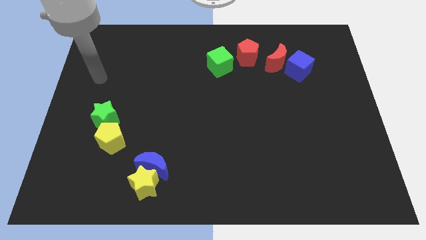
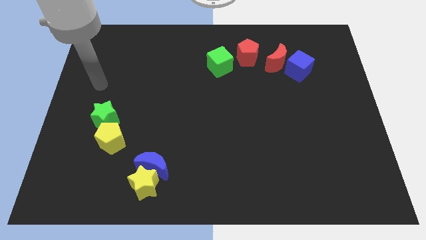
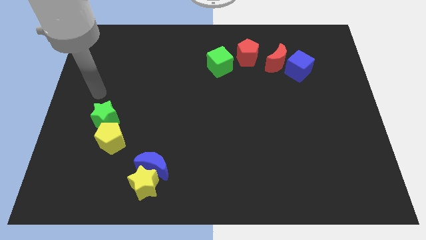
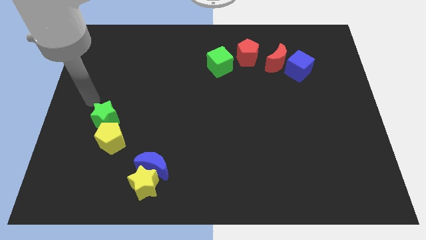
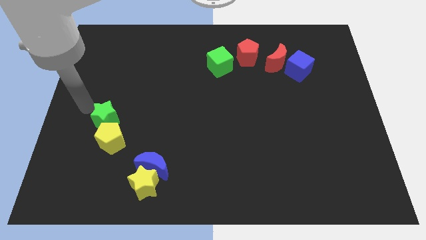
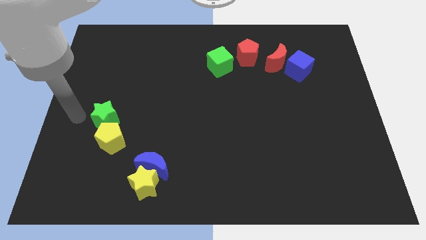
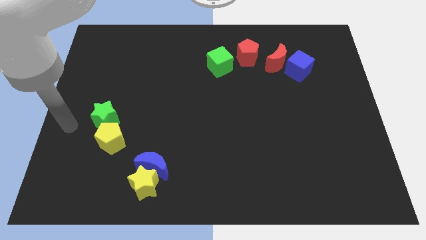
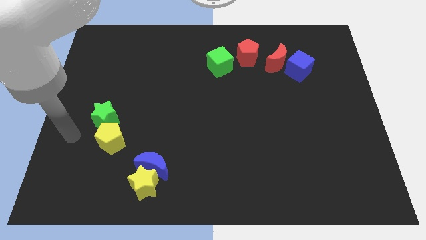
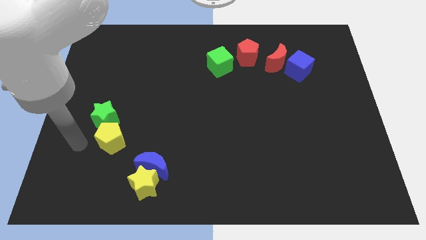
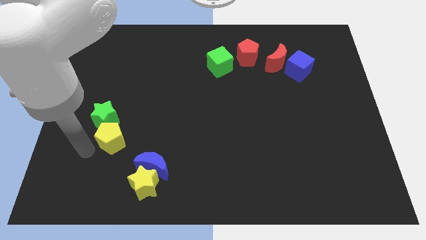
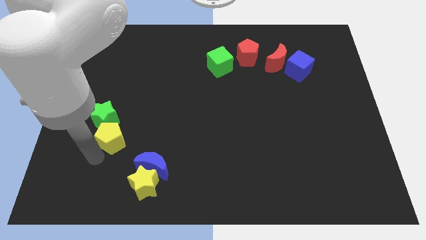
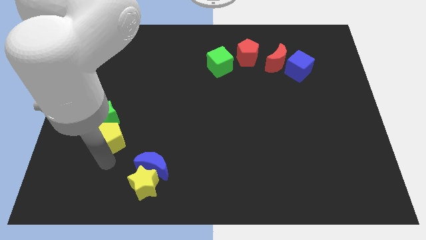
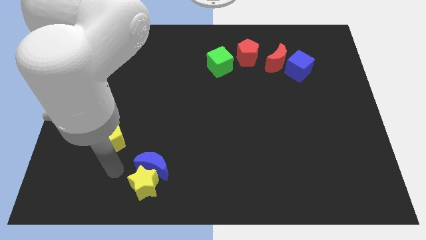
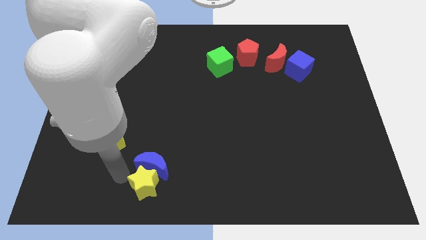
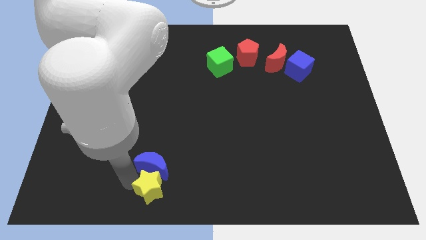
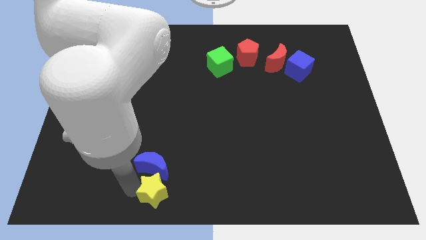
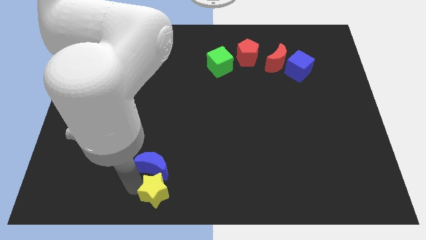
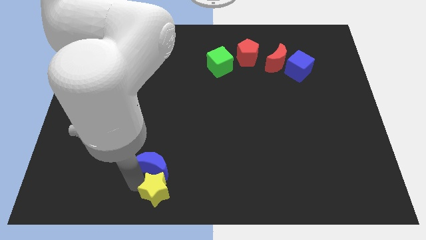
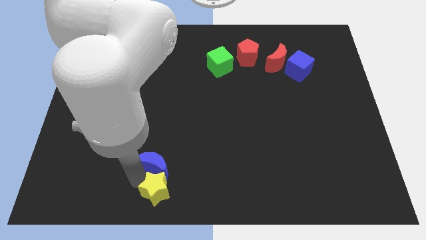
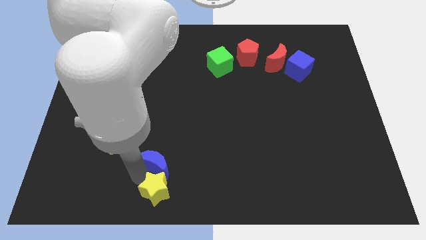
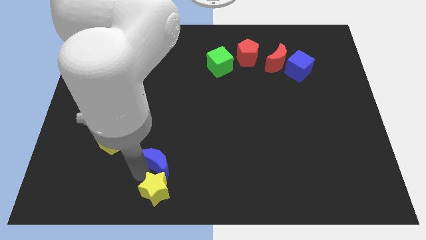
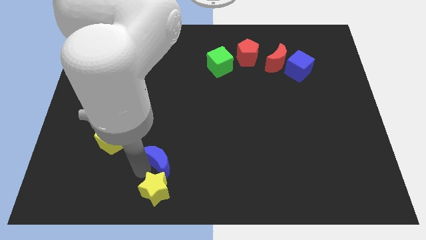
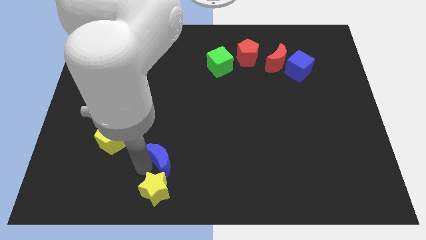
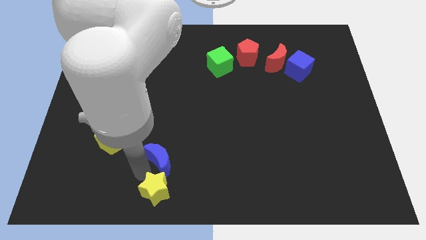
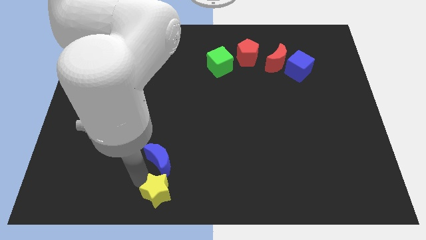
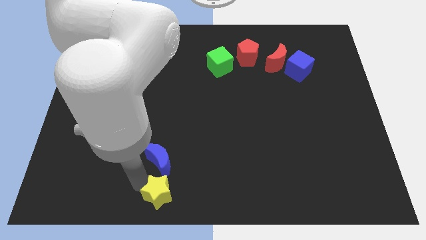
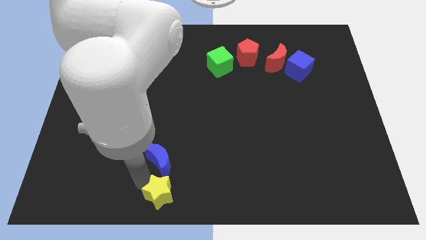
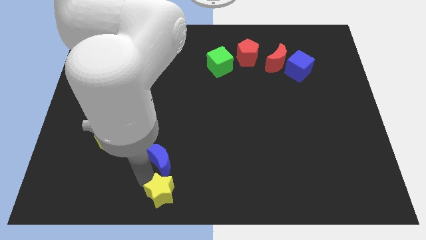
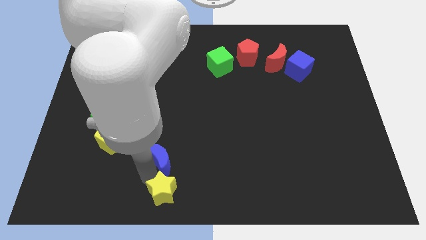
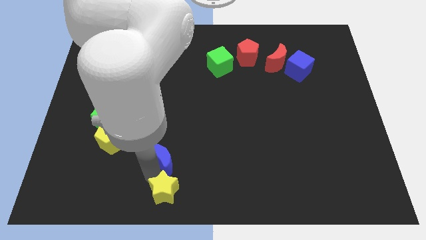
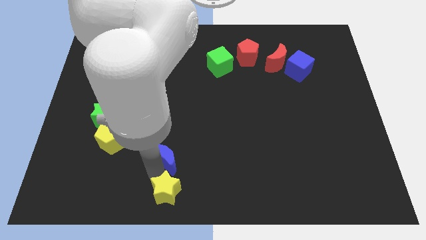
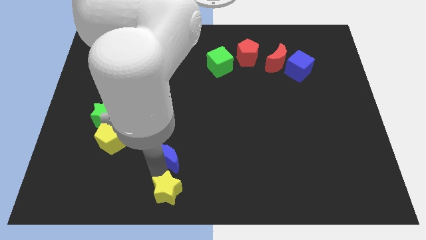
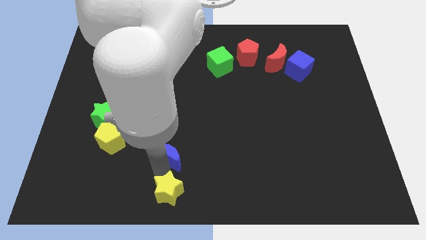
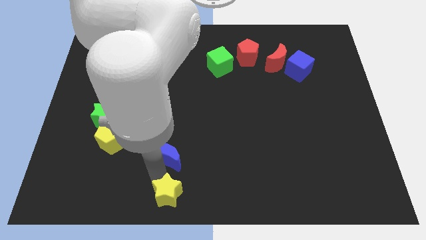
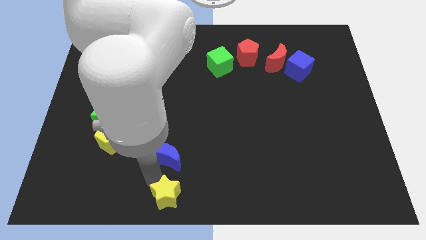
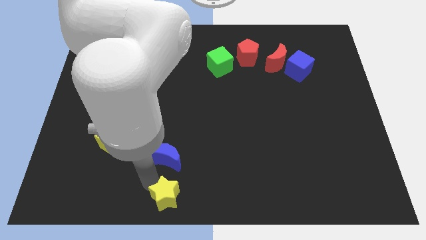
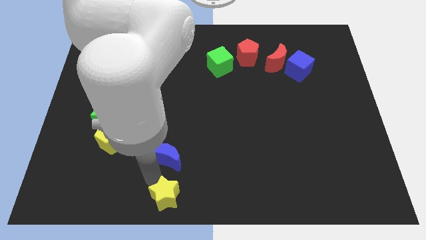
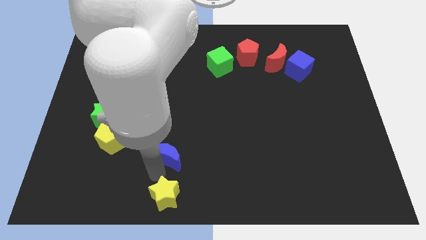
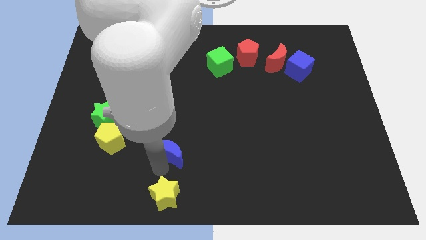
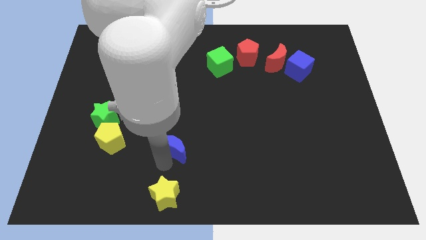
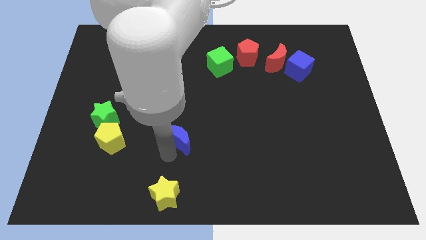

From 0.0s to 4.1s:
slide the blue moon slightly diagonally upwards and to the right

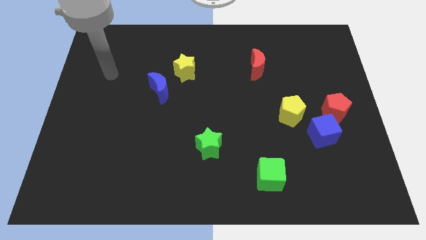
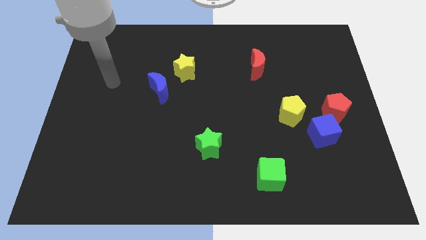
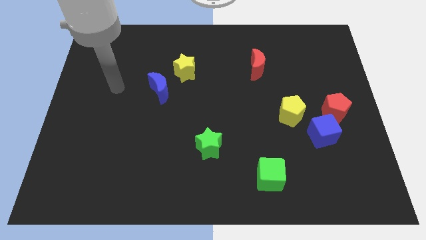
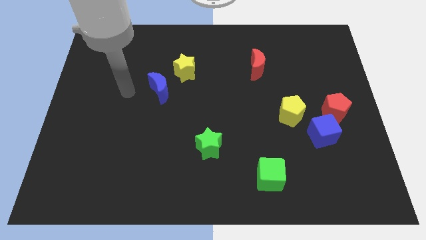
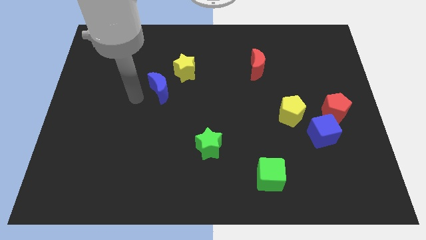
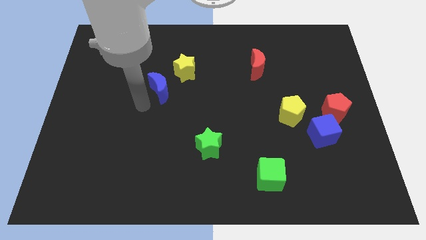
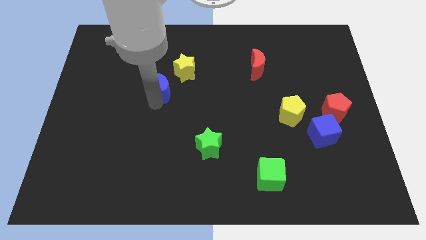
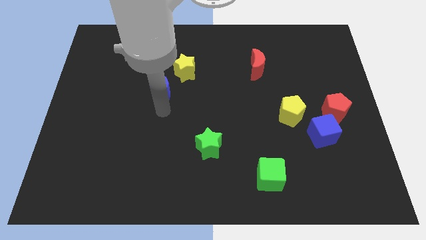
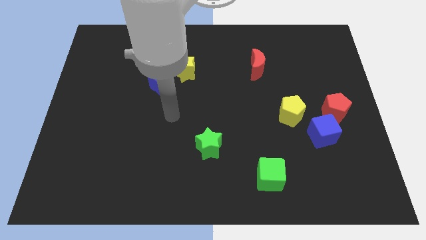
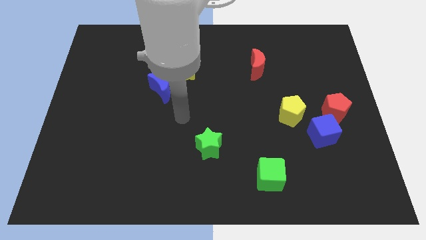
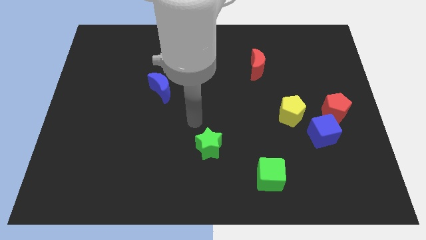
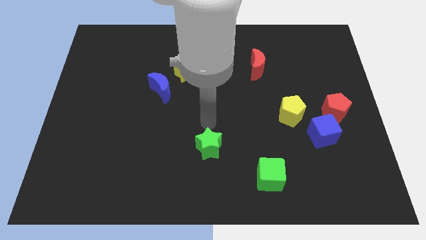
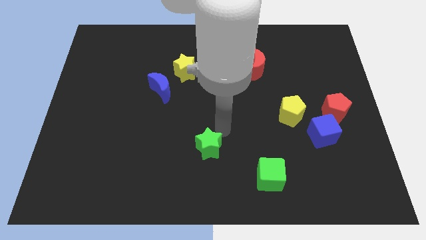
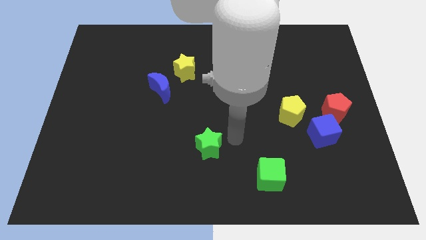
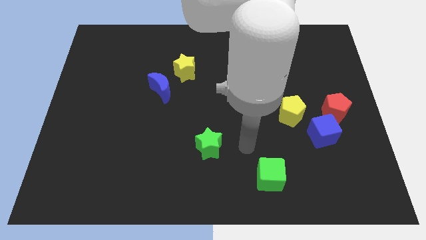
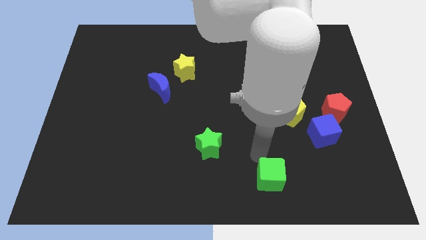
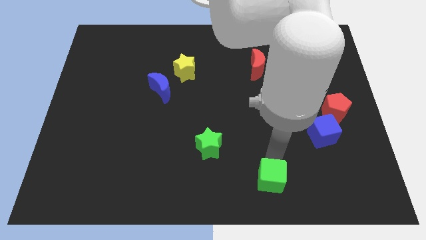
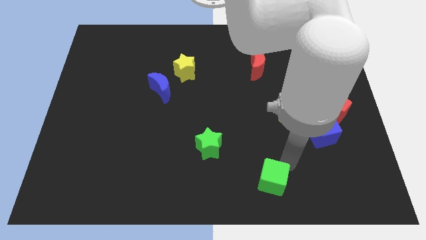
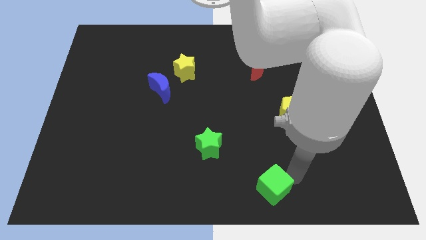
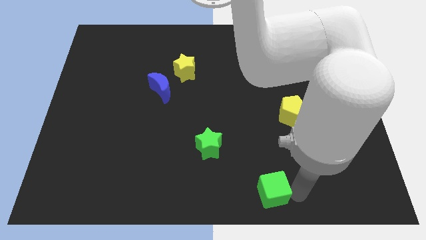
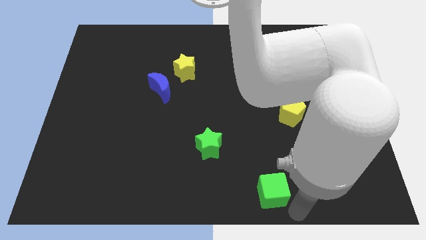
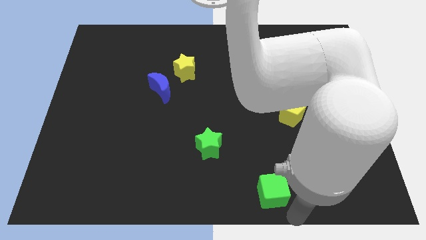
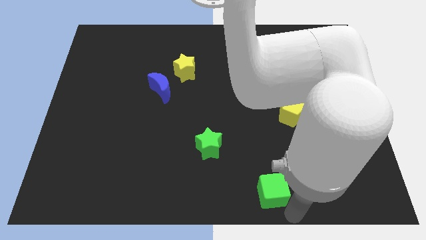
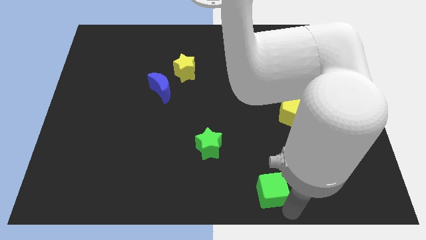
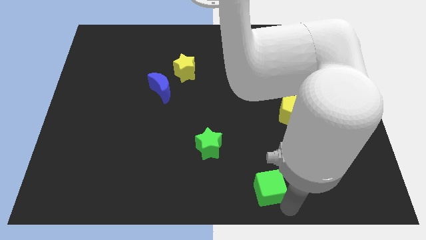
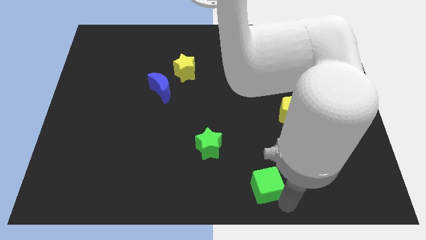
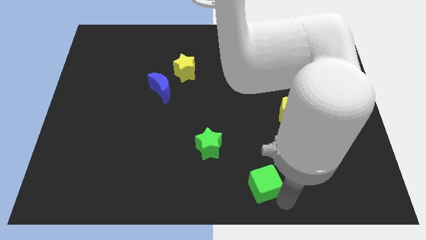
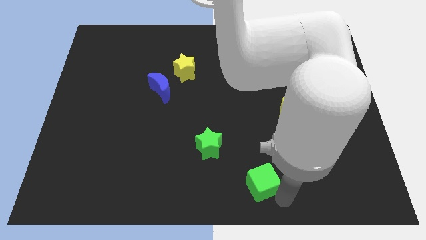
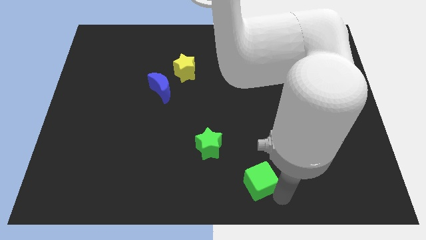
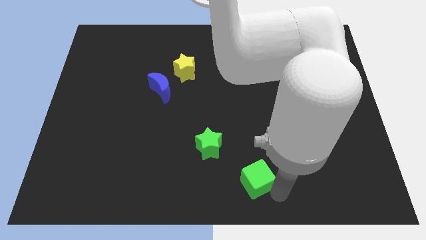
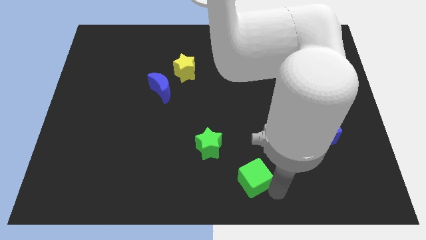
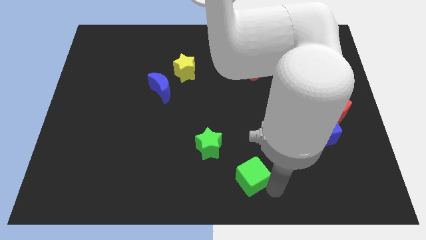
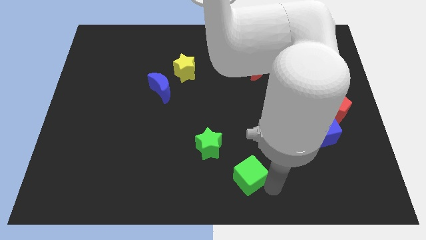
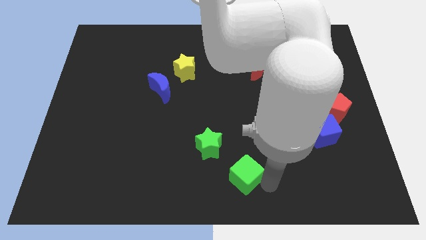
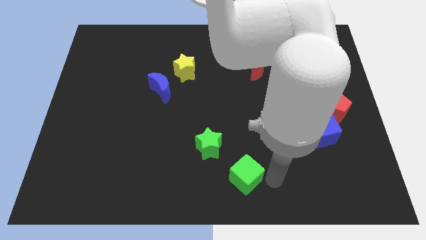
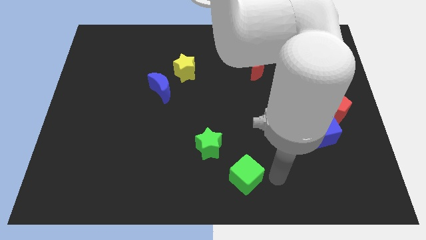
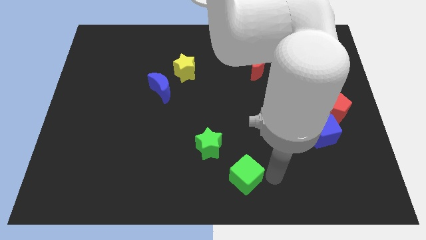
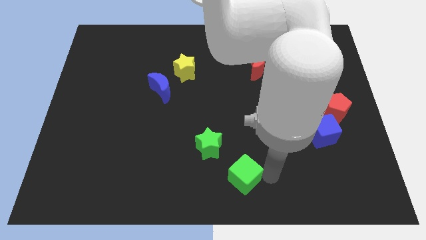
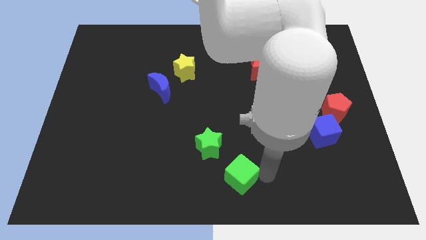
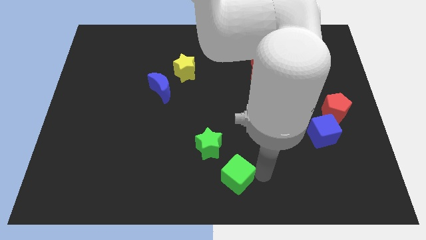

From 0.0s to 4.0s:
slide the green cube a little bit to the left
